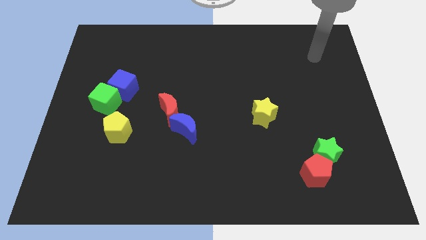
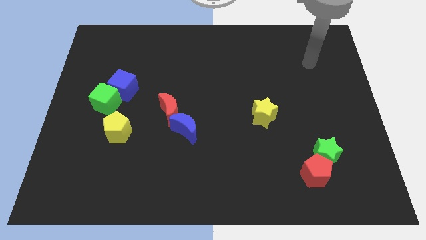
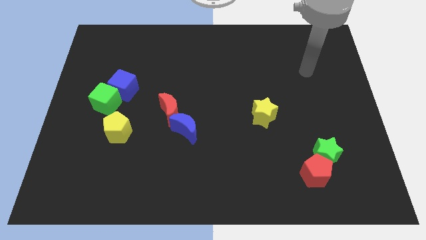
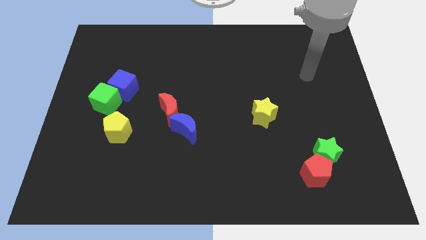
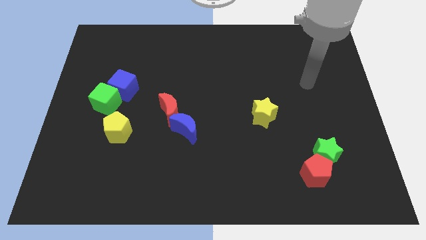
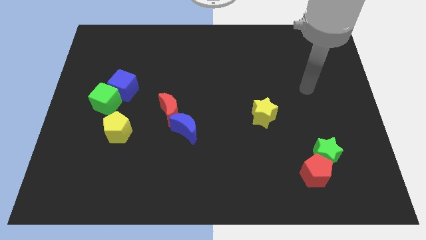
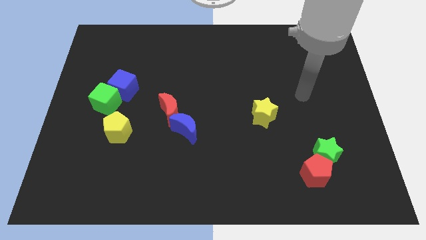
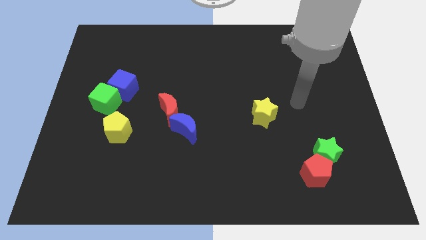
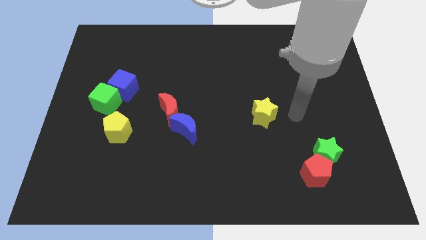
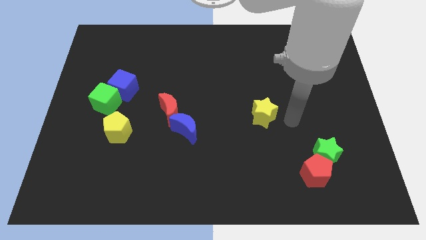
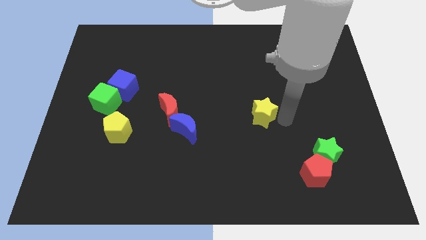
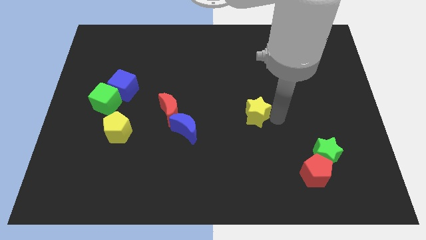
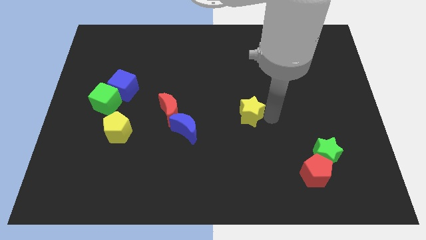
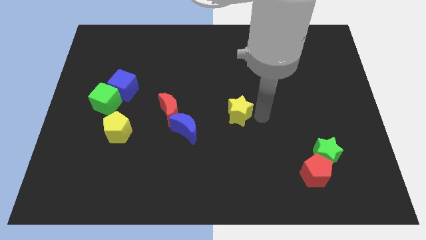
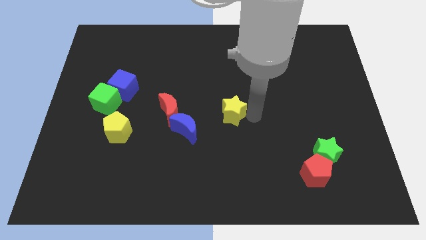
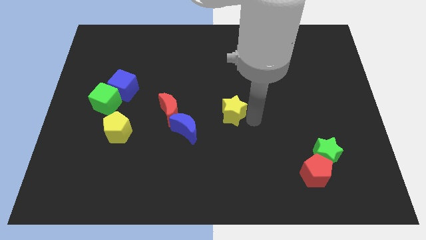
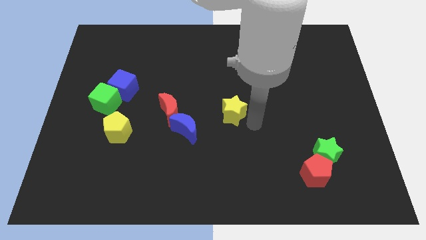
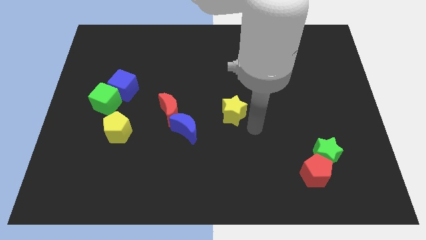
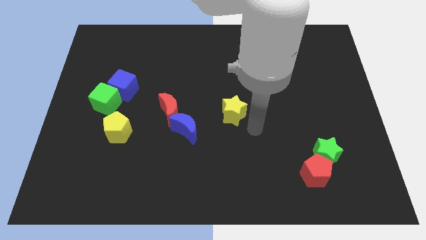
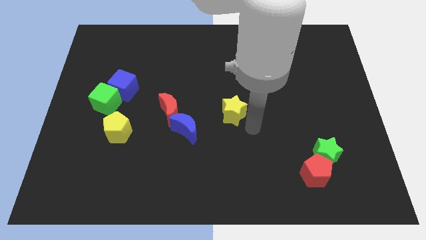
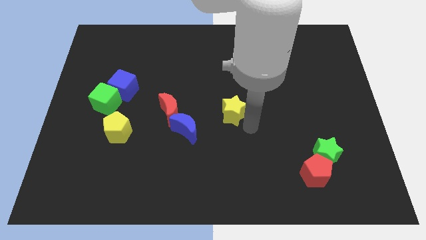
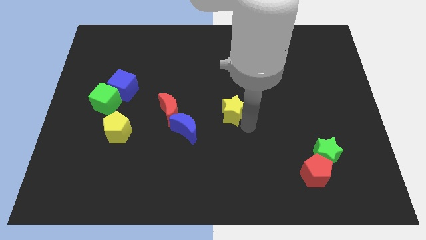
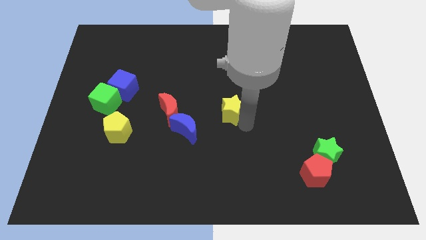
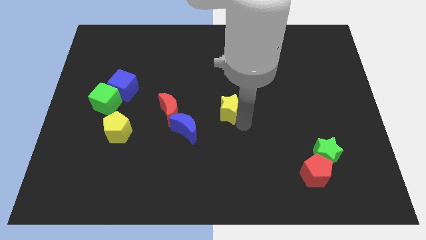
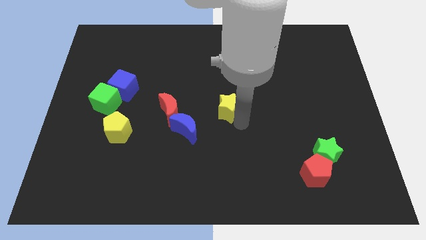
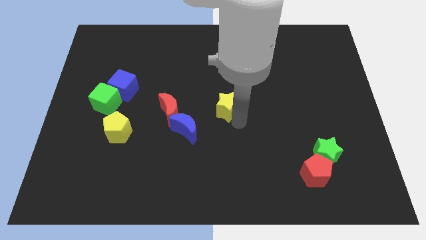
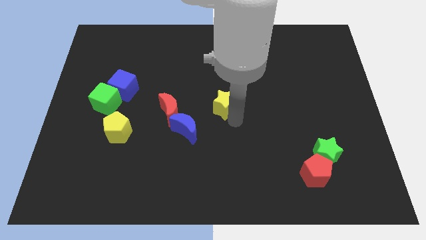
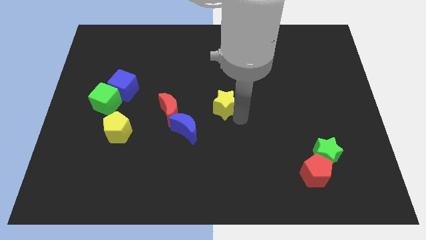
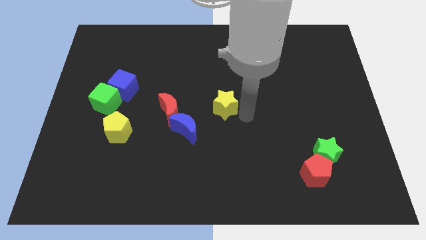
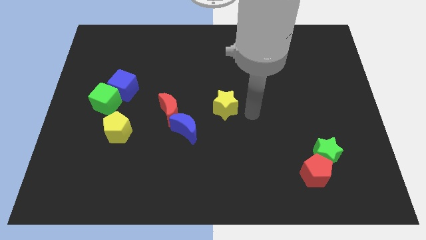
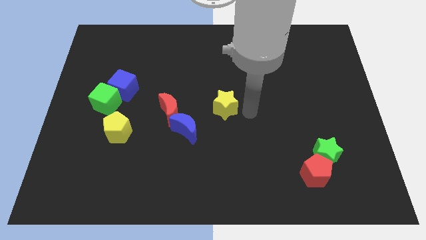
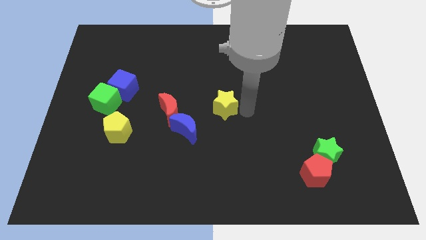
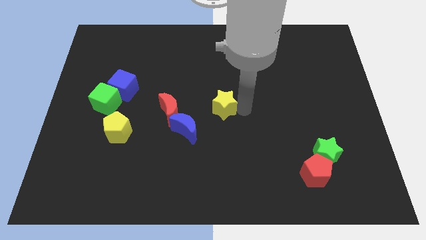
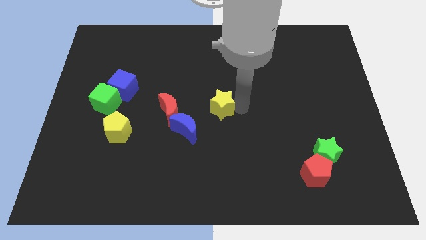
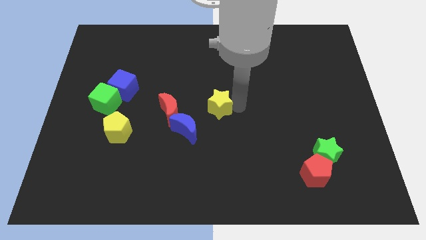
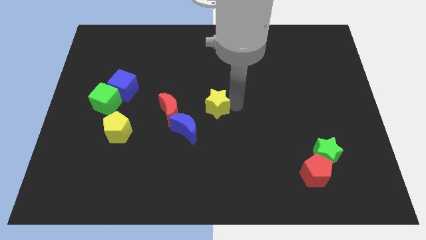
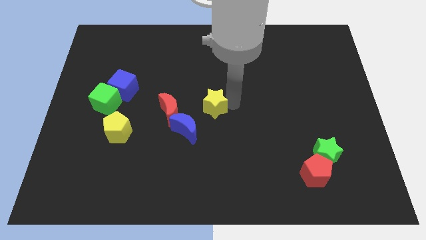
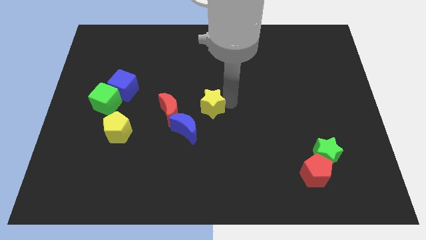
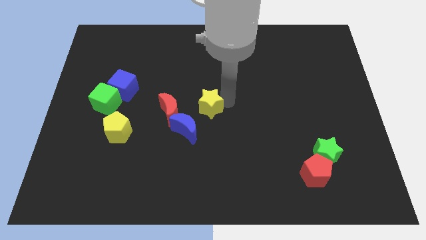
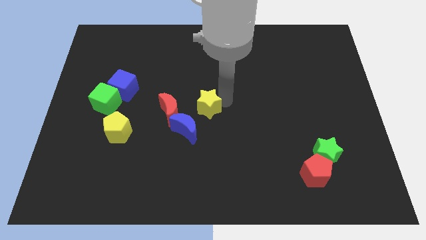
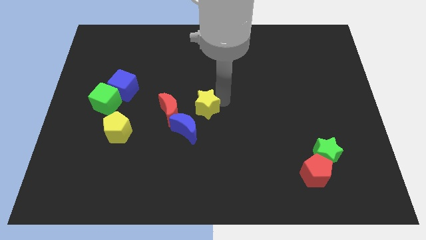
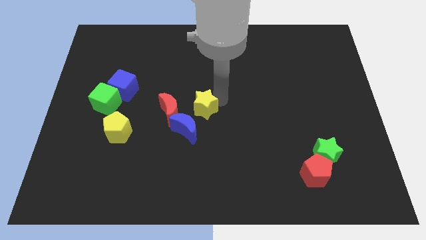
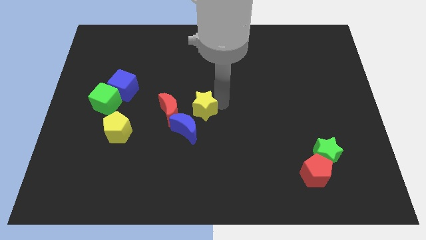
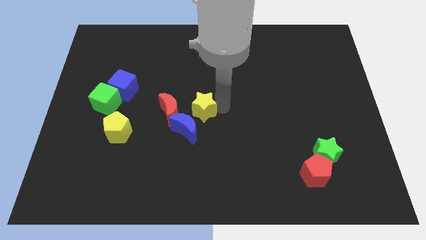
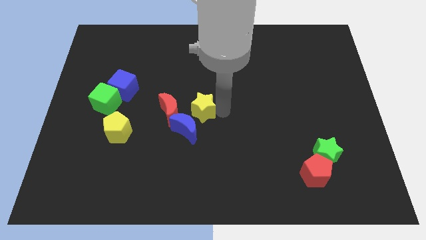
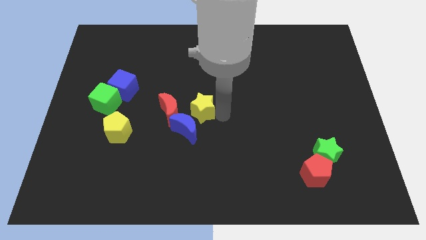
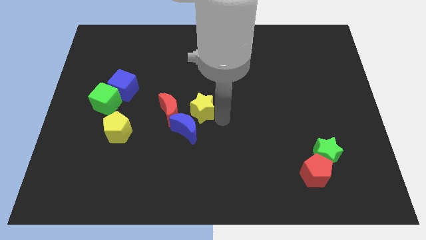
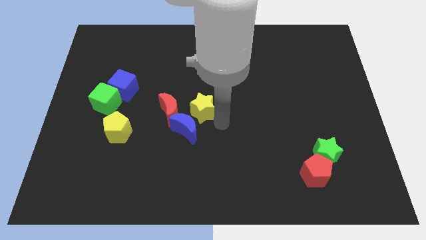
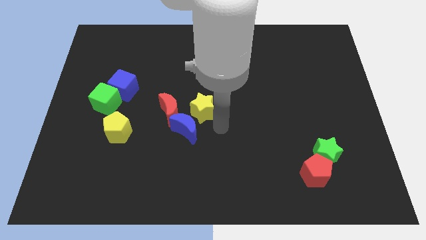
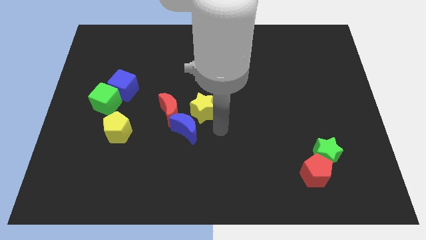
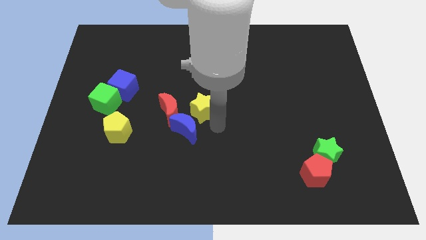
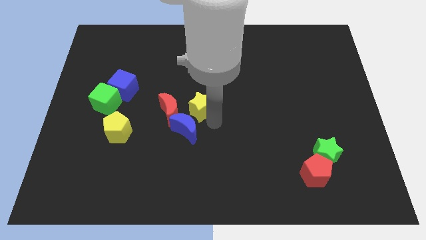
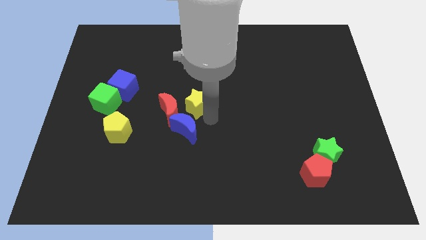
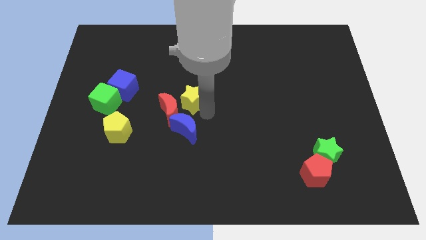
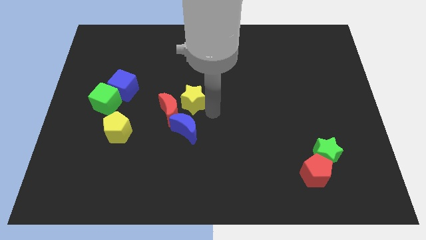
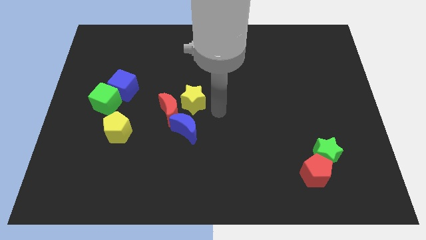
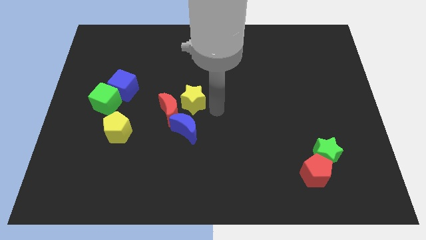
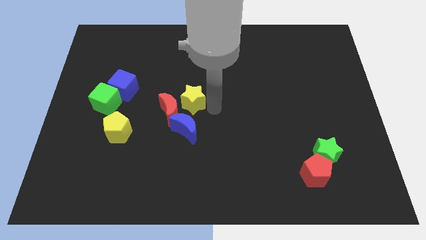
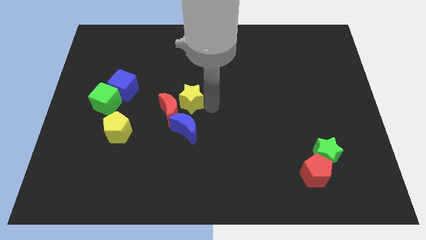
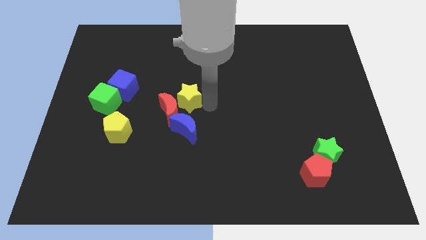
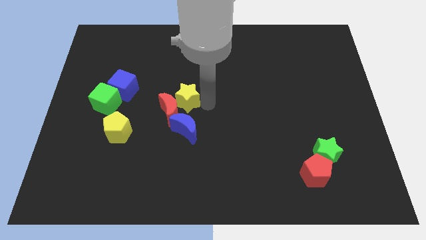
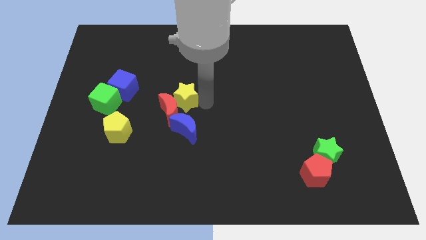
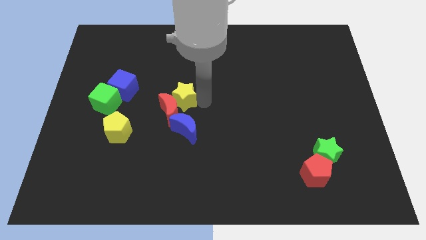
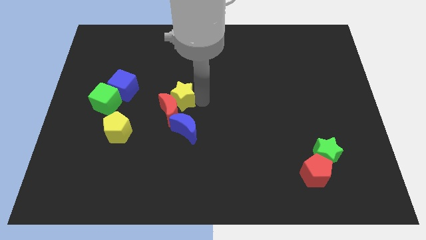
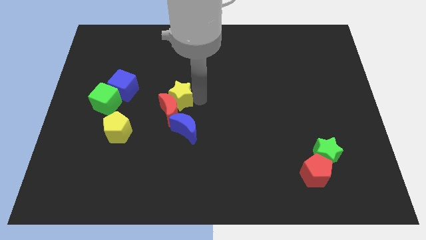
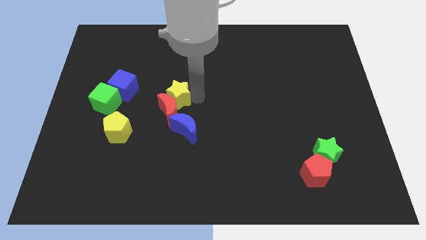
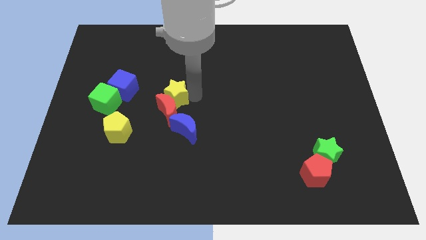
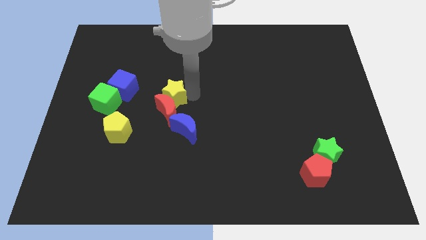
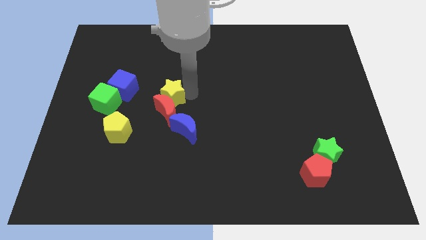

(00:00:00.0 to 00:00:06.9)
move the yellow star left

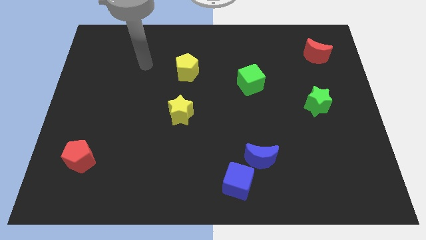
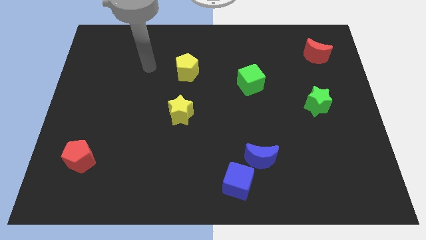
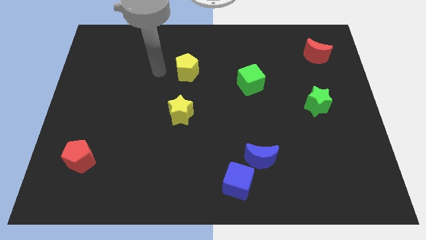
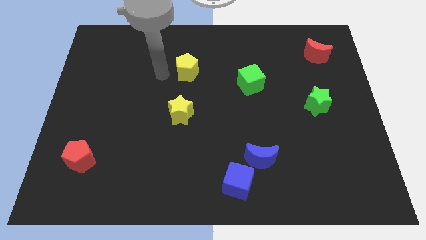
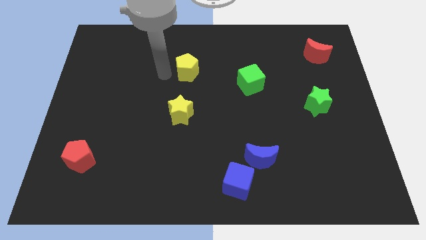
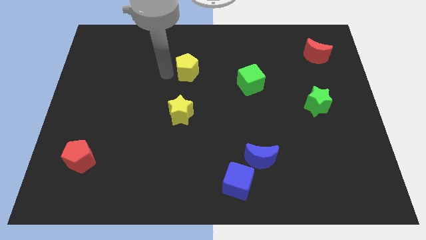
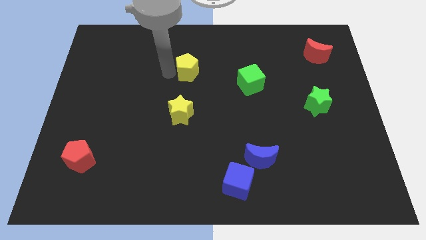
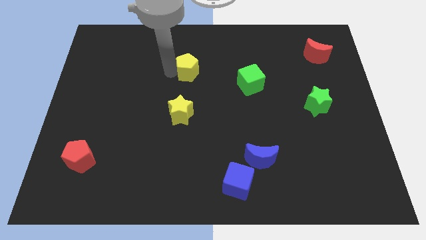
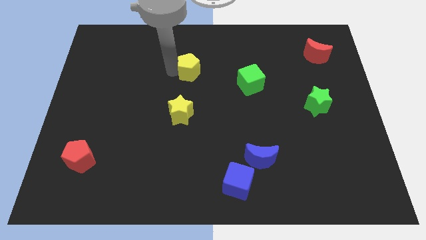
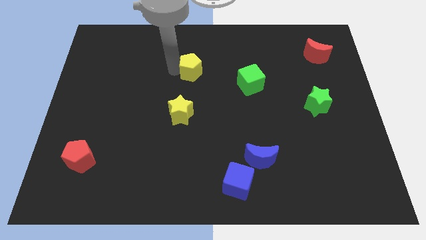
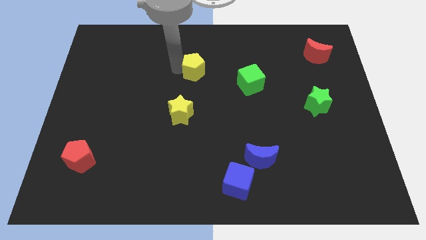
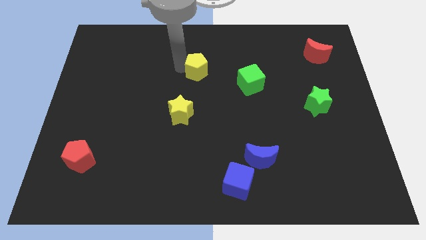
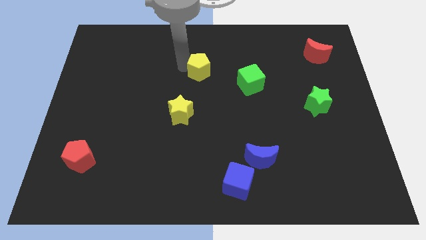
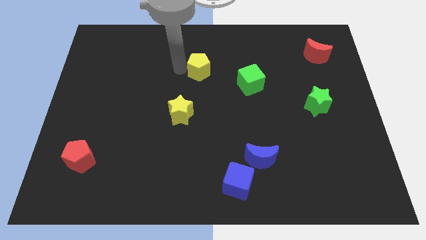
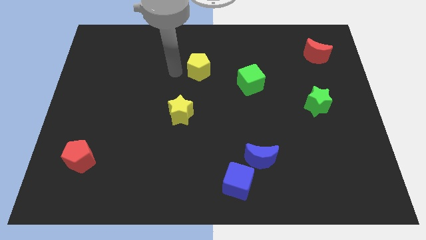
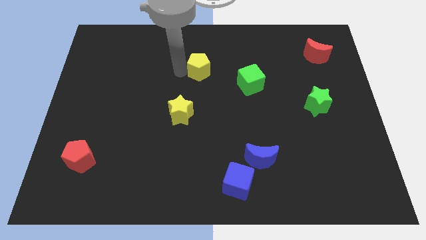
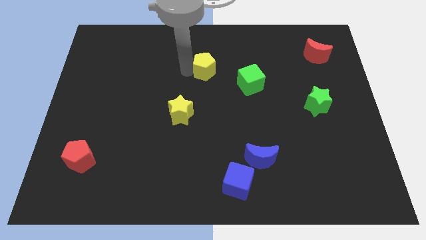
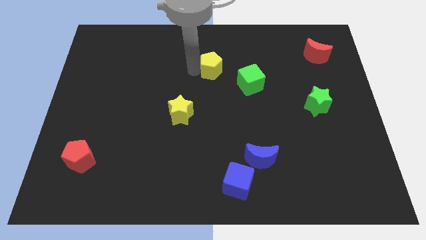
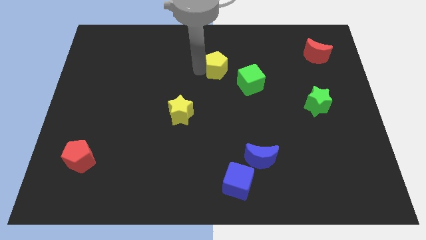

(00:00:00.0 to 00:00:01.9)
move the yellow pentagon slightly to the right
